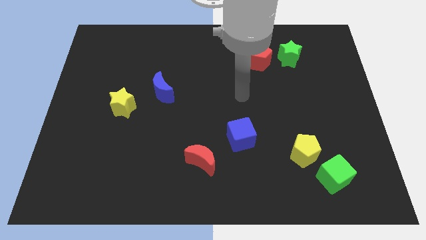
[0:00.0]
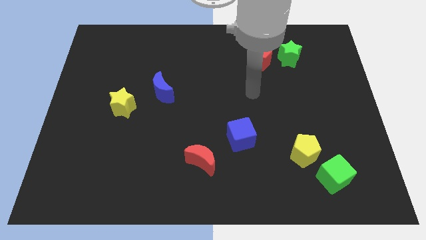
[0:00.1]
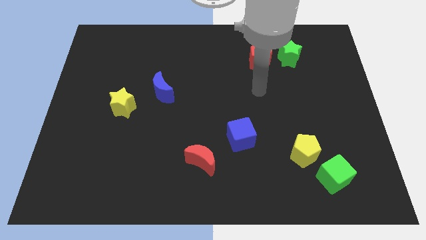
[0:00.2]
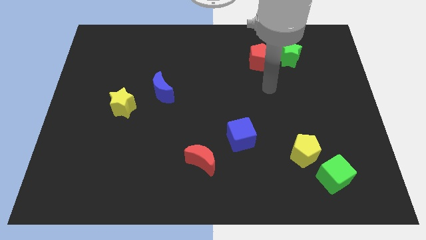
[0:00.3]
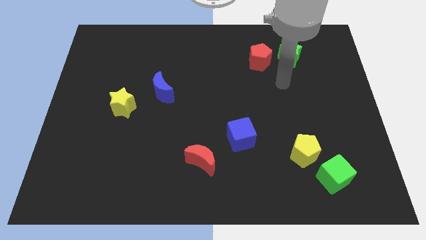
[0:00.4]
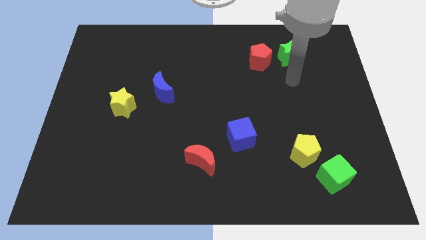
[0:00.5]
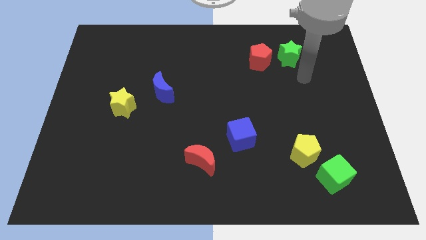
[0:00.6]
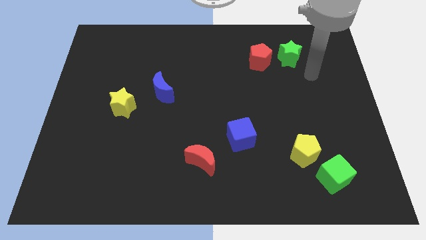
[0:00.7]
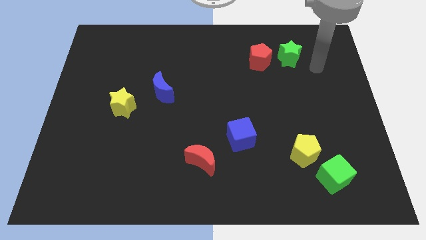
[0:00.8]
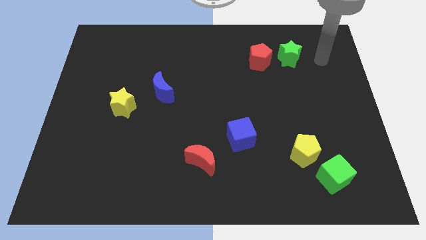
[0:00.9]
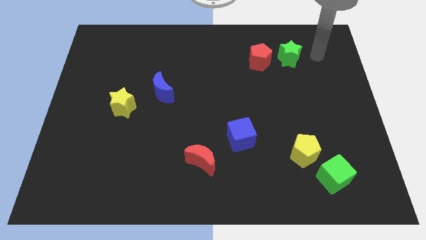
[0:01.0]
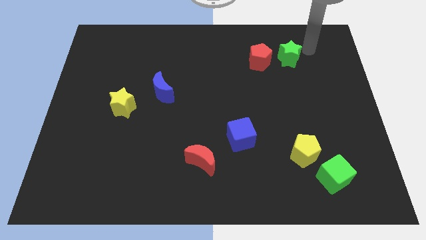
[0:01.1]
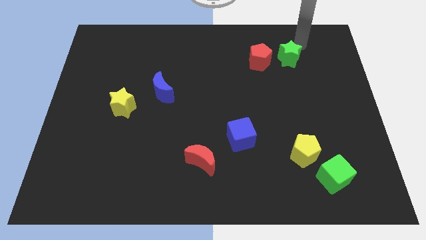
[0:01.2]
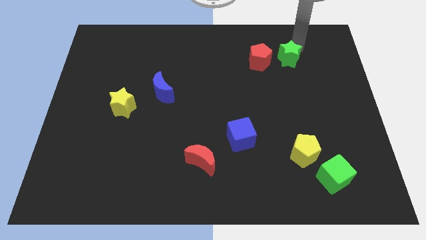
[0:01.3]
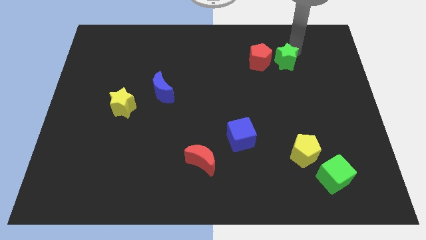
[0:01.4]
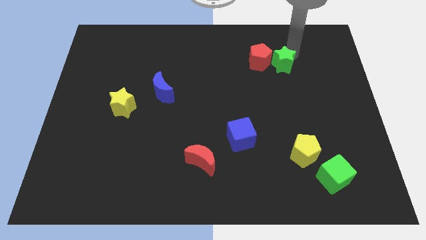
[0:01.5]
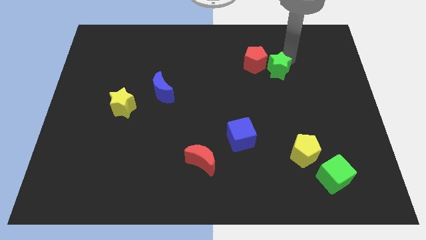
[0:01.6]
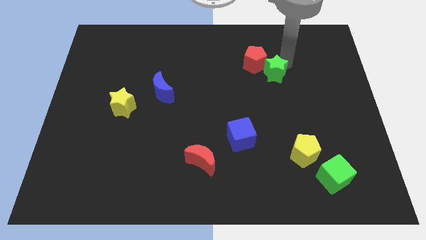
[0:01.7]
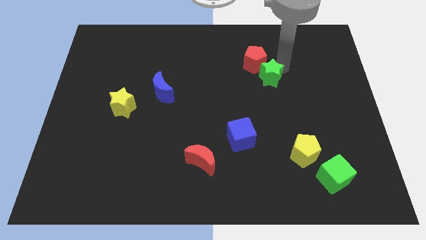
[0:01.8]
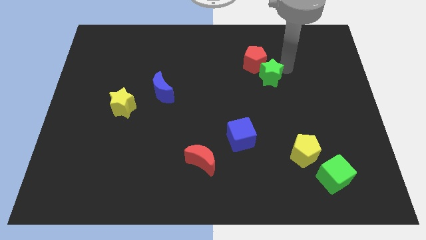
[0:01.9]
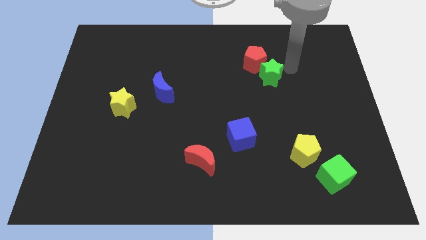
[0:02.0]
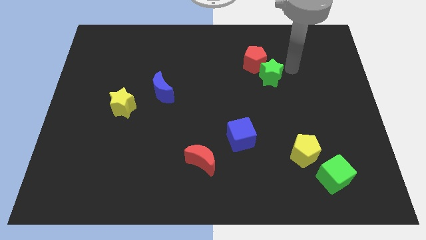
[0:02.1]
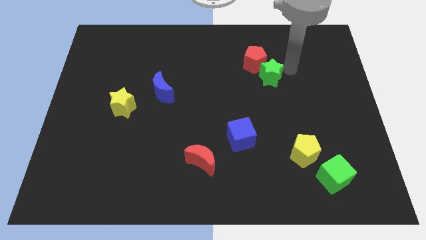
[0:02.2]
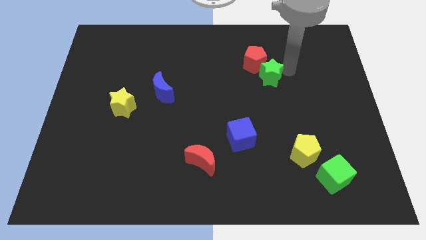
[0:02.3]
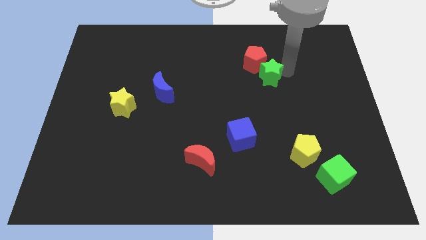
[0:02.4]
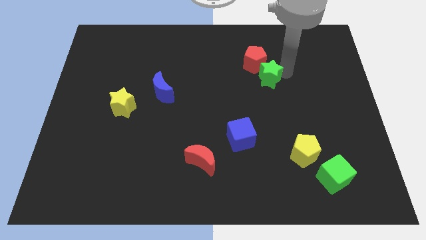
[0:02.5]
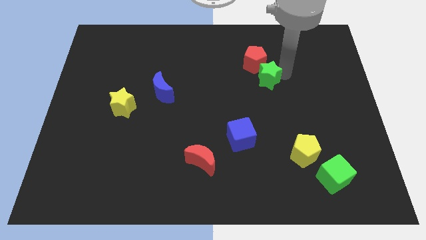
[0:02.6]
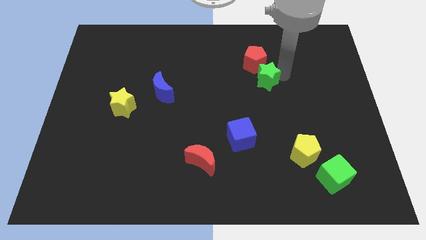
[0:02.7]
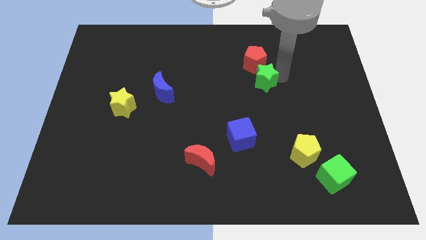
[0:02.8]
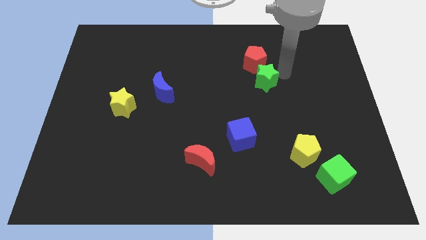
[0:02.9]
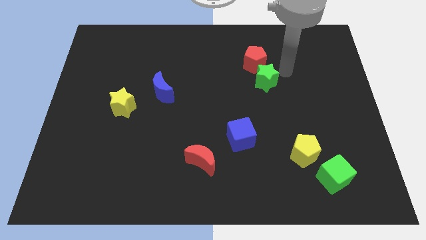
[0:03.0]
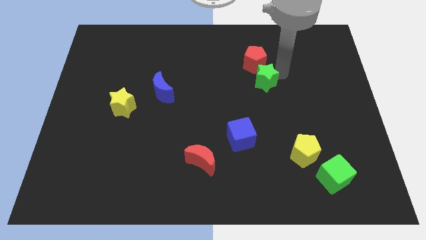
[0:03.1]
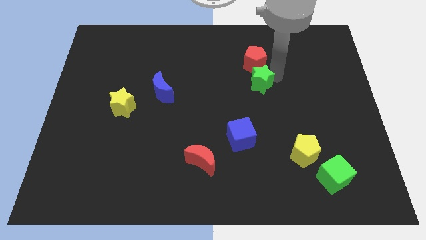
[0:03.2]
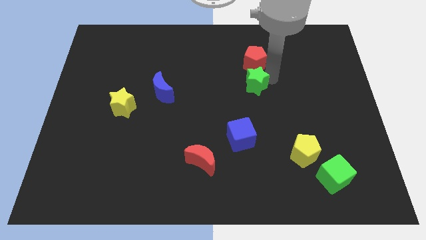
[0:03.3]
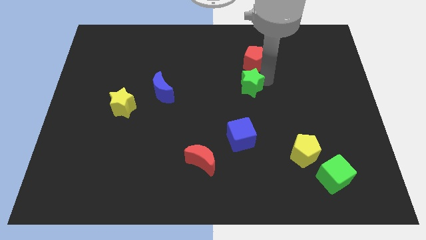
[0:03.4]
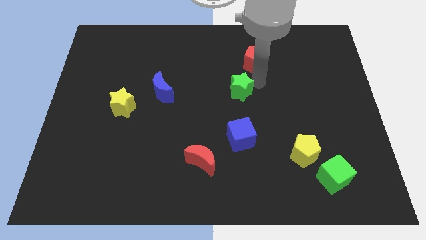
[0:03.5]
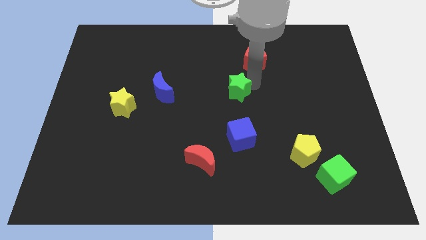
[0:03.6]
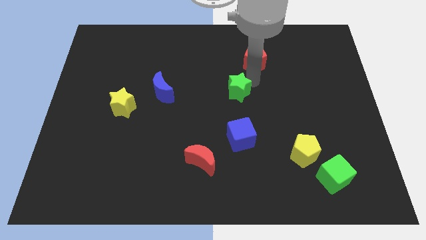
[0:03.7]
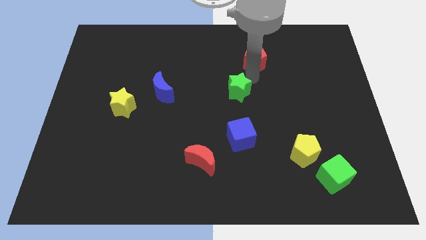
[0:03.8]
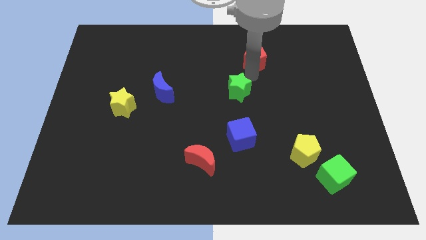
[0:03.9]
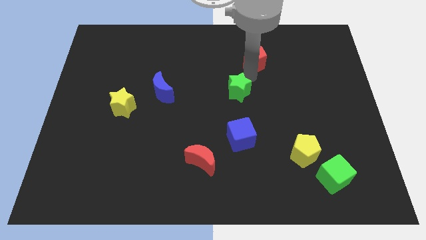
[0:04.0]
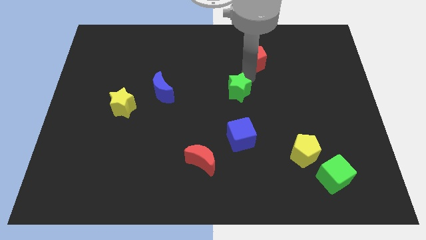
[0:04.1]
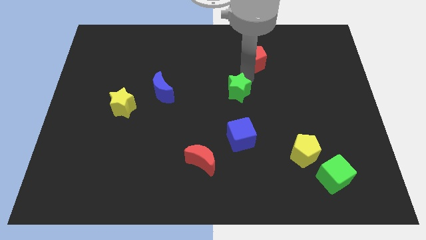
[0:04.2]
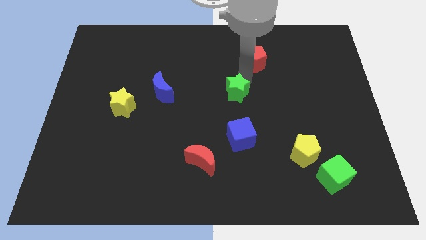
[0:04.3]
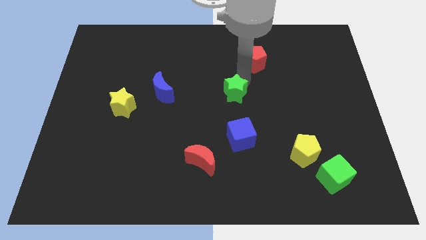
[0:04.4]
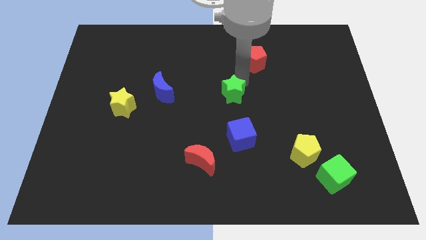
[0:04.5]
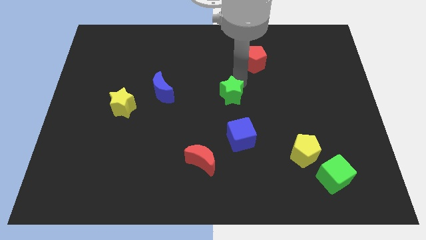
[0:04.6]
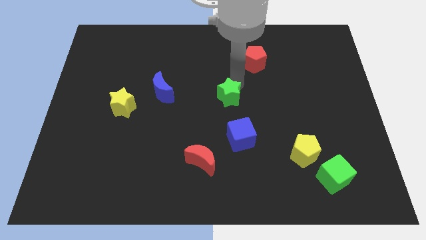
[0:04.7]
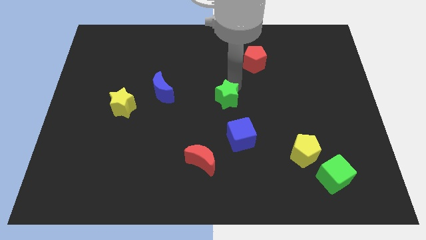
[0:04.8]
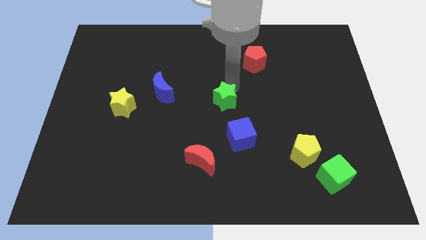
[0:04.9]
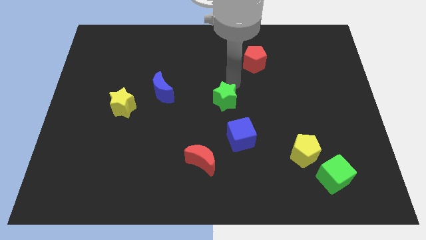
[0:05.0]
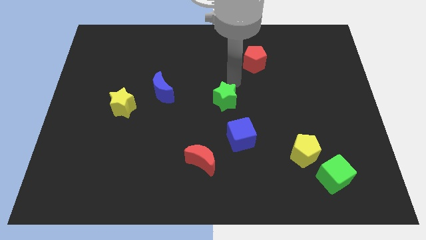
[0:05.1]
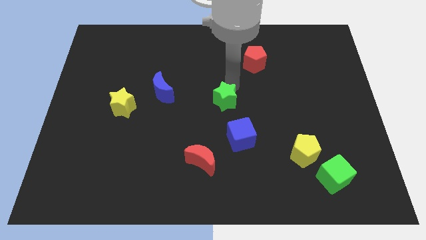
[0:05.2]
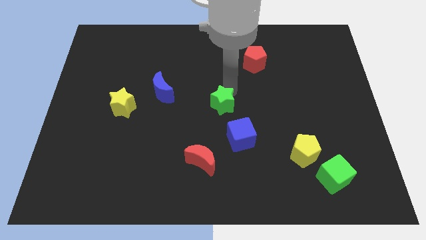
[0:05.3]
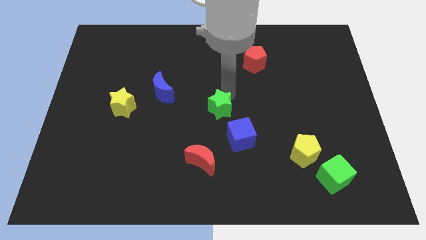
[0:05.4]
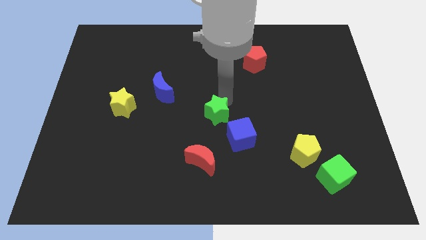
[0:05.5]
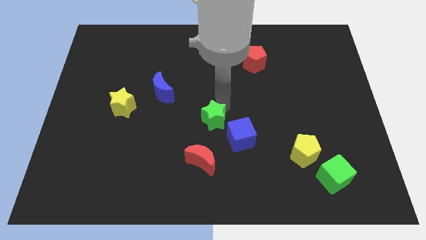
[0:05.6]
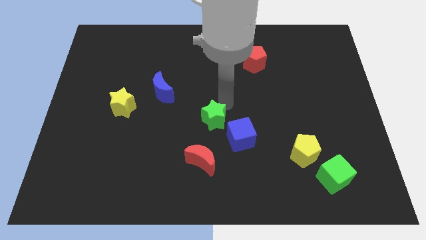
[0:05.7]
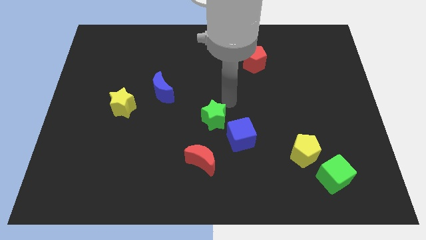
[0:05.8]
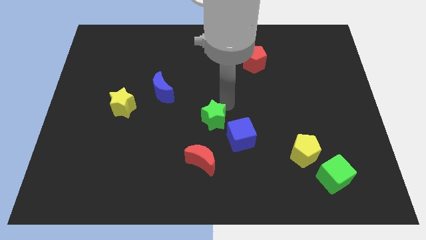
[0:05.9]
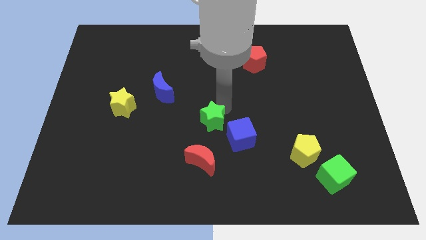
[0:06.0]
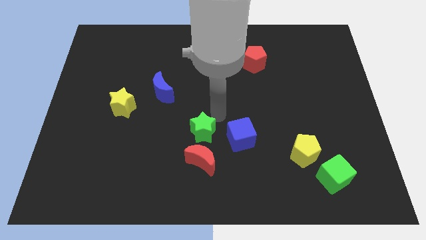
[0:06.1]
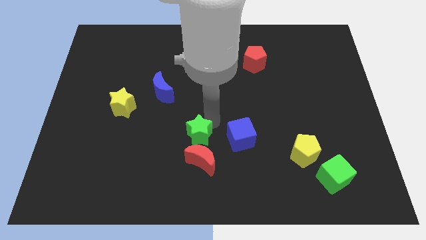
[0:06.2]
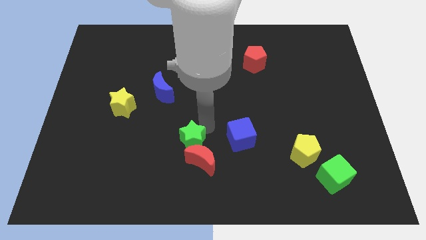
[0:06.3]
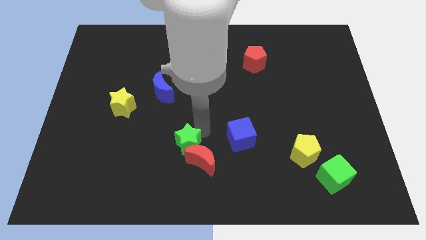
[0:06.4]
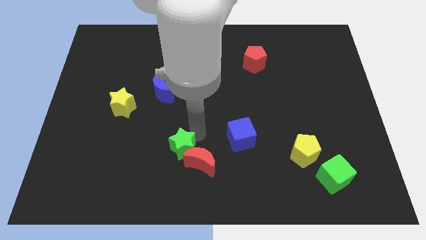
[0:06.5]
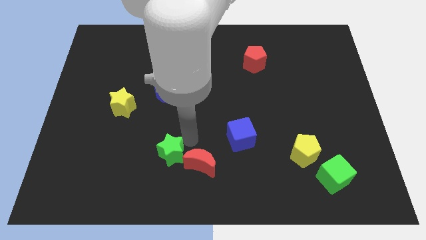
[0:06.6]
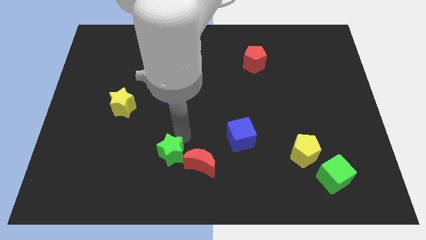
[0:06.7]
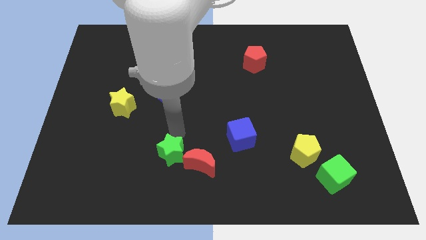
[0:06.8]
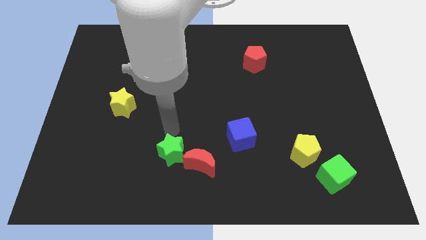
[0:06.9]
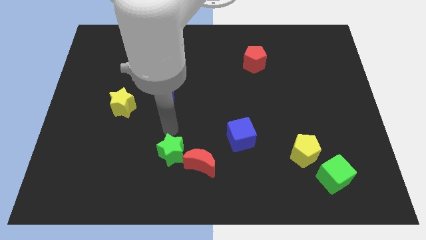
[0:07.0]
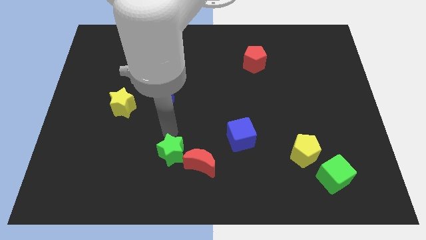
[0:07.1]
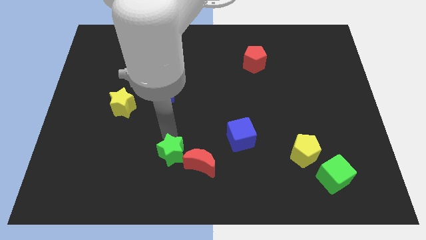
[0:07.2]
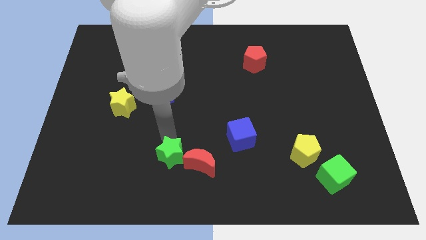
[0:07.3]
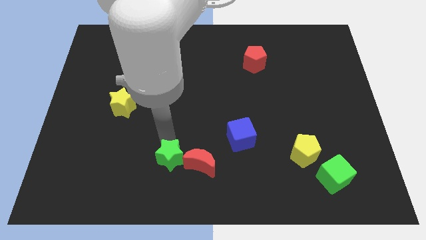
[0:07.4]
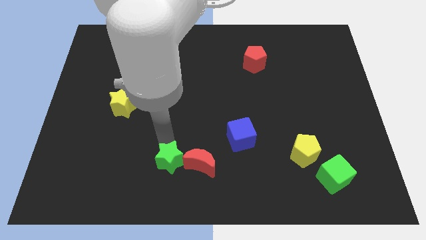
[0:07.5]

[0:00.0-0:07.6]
push the green star diagonally down and to the left of the red moon
